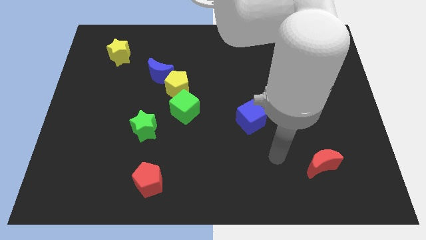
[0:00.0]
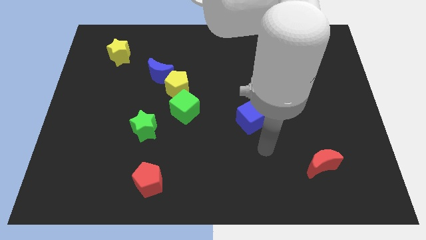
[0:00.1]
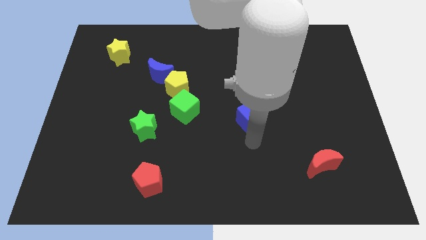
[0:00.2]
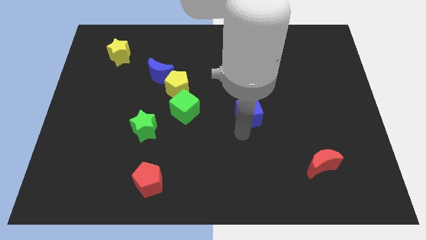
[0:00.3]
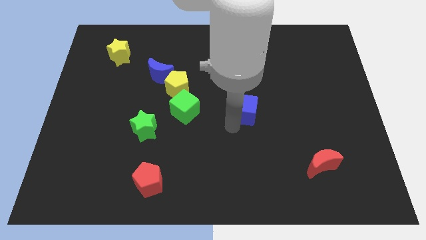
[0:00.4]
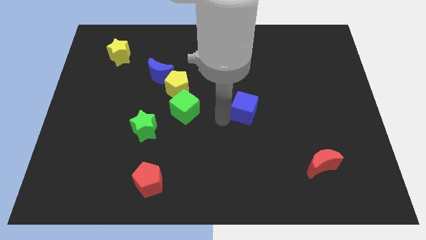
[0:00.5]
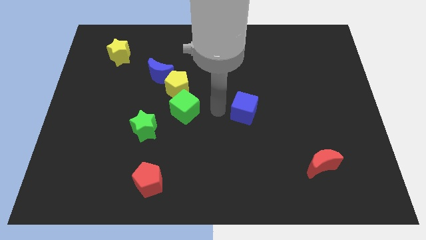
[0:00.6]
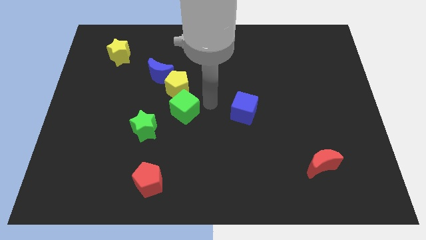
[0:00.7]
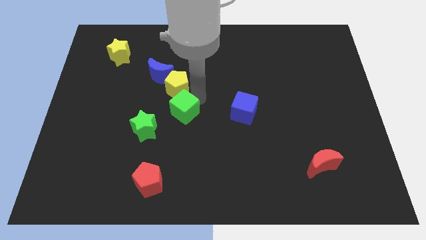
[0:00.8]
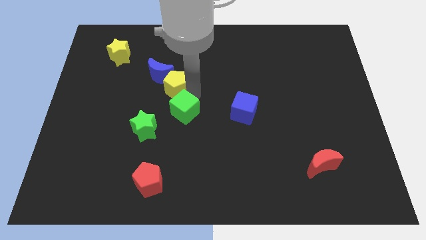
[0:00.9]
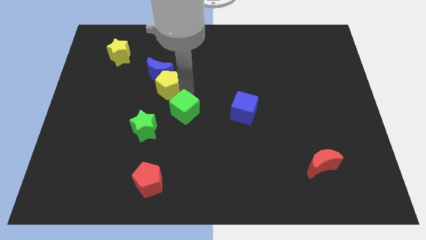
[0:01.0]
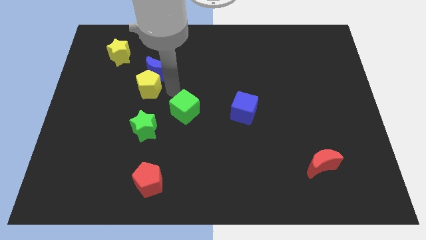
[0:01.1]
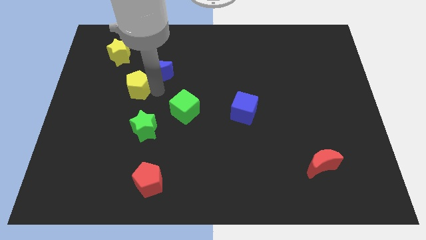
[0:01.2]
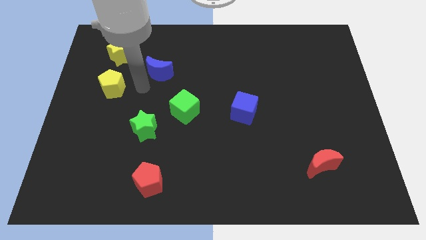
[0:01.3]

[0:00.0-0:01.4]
separate the blue moon from the yellow pentagon

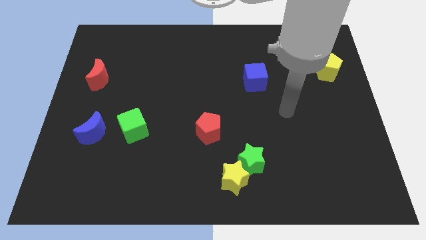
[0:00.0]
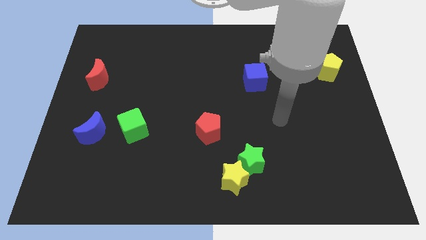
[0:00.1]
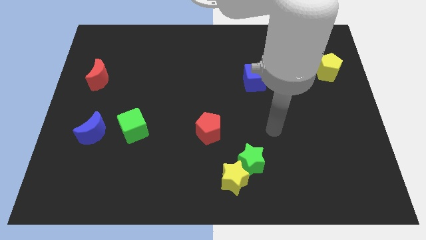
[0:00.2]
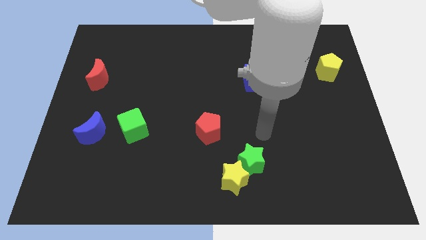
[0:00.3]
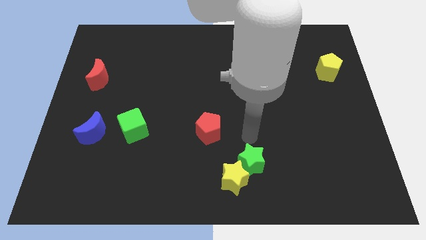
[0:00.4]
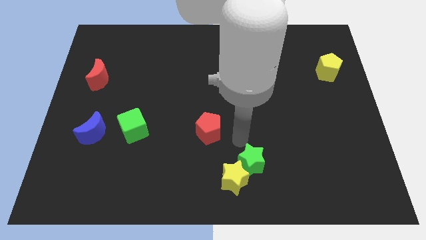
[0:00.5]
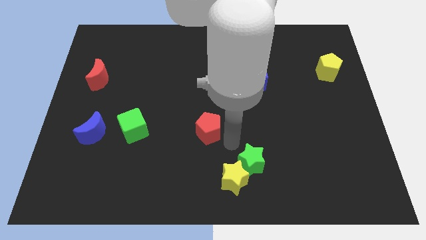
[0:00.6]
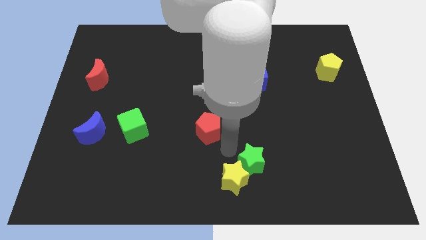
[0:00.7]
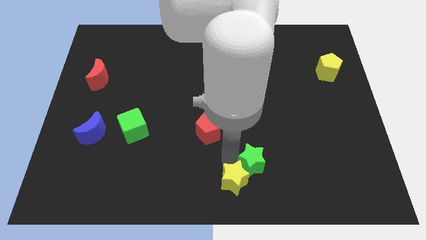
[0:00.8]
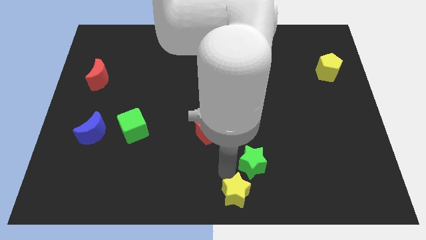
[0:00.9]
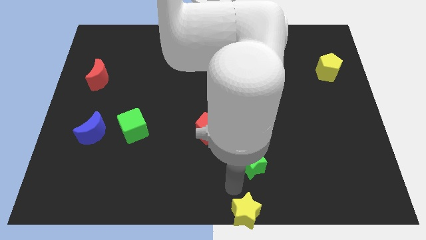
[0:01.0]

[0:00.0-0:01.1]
move the green star away from the yellow star

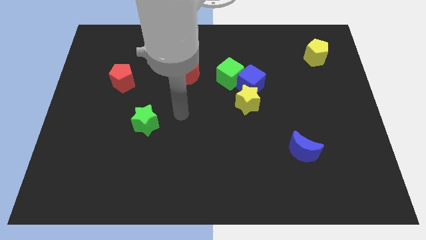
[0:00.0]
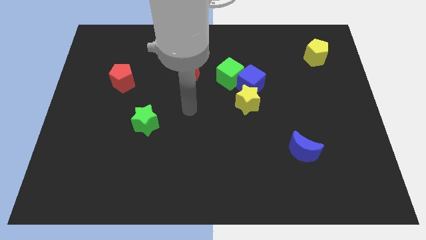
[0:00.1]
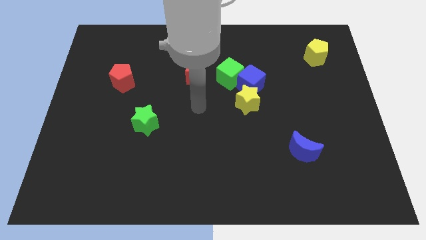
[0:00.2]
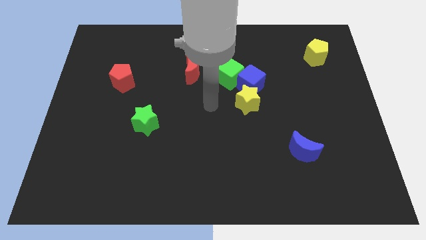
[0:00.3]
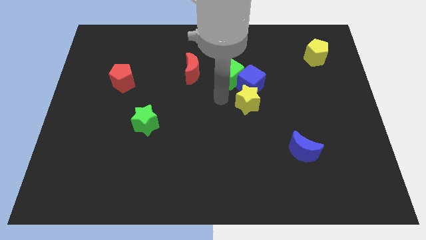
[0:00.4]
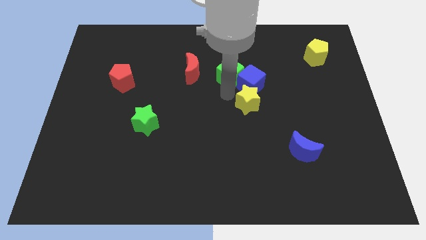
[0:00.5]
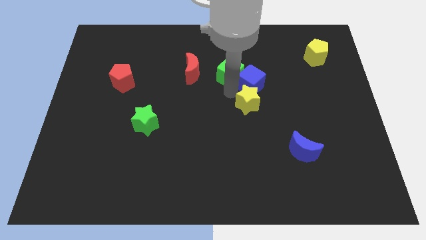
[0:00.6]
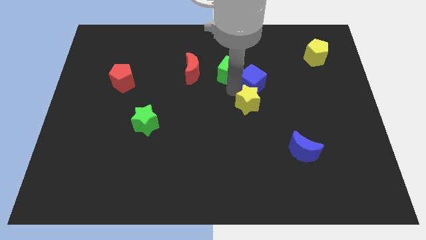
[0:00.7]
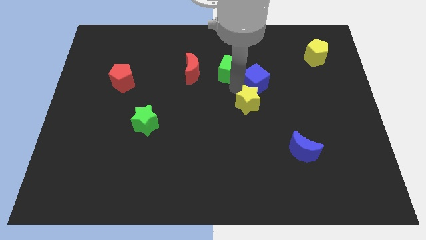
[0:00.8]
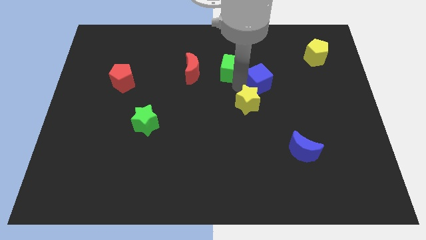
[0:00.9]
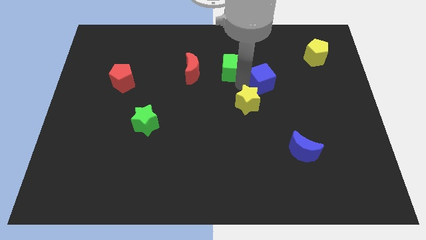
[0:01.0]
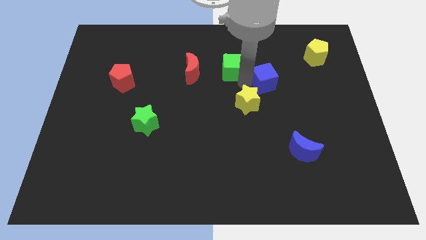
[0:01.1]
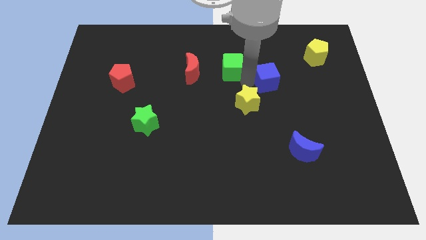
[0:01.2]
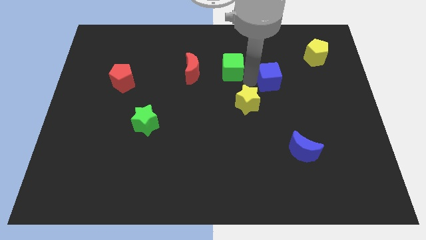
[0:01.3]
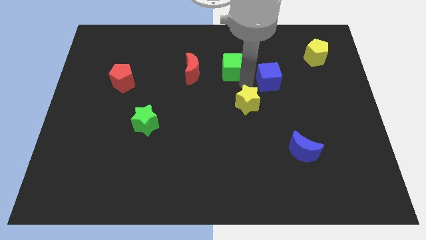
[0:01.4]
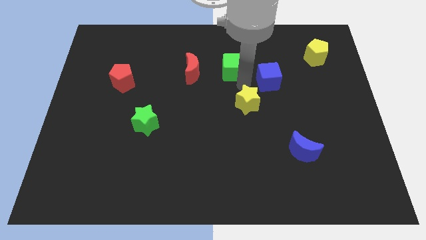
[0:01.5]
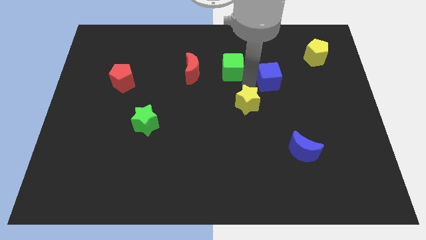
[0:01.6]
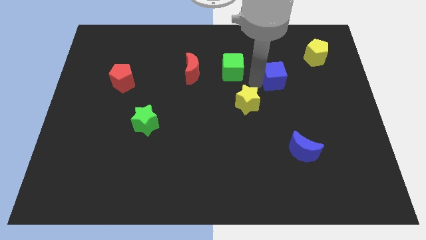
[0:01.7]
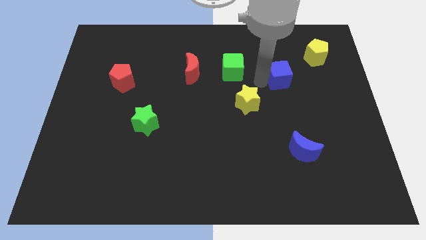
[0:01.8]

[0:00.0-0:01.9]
separate the blue cube from the green cube and yellow star

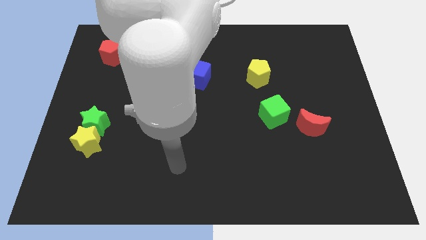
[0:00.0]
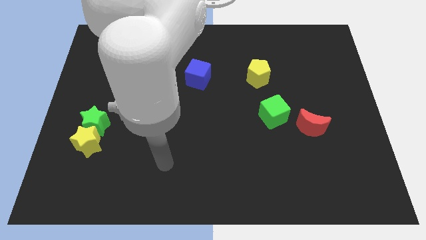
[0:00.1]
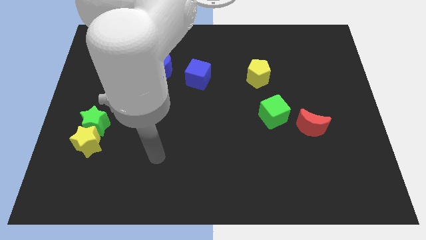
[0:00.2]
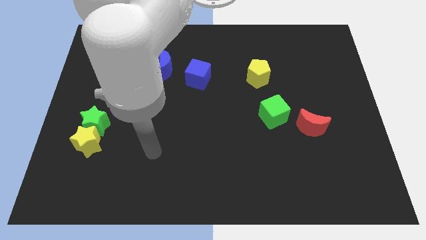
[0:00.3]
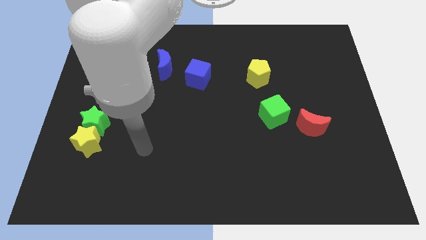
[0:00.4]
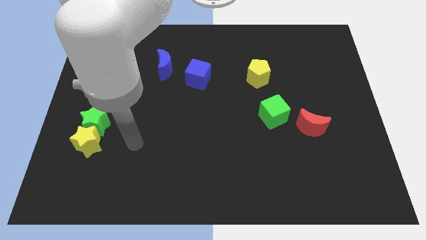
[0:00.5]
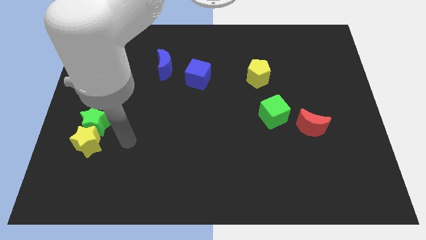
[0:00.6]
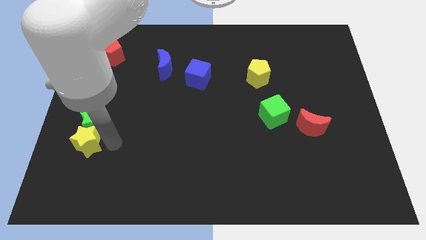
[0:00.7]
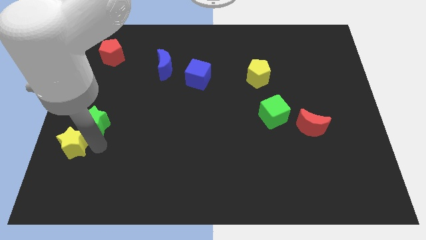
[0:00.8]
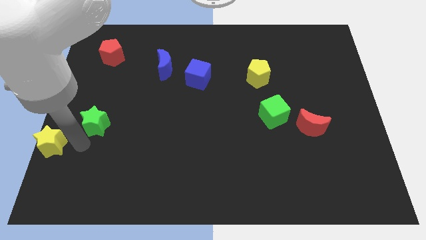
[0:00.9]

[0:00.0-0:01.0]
pull the green star apart from the yellow star

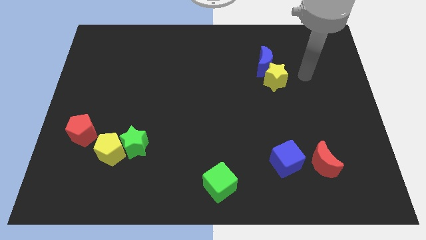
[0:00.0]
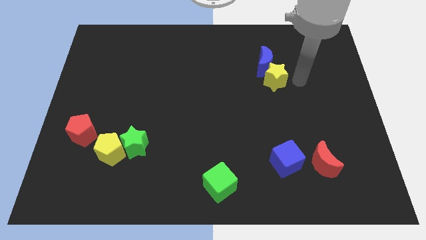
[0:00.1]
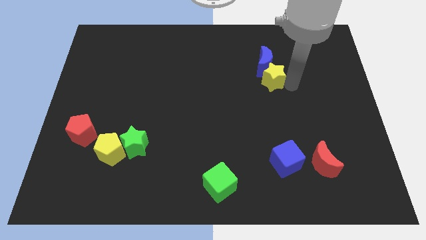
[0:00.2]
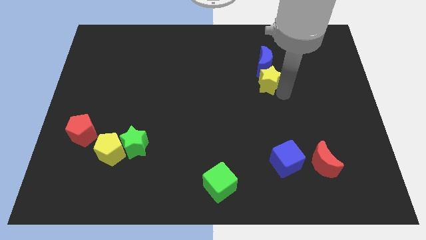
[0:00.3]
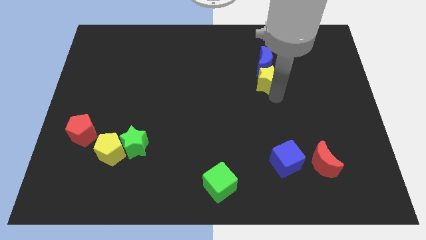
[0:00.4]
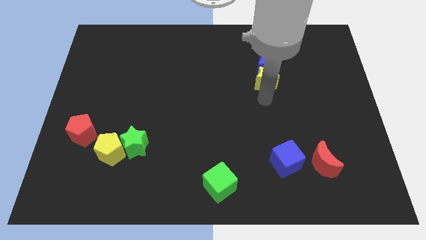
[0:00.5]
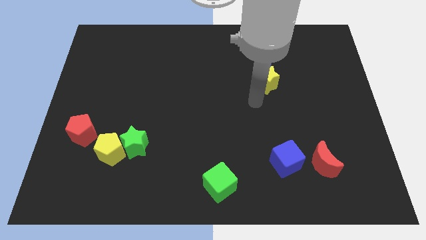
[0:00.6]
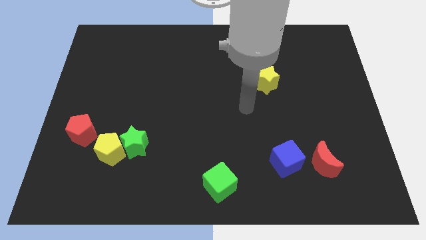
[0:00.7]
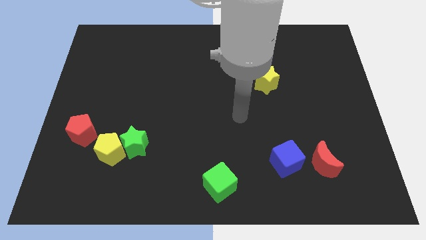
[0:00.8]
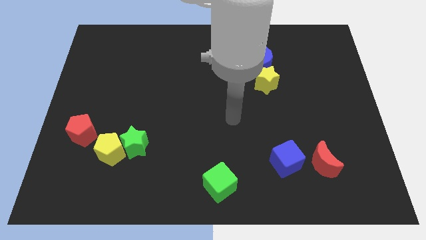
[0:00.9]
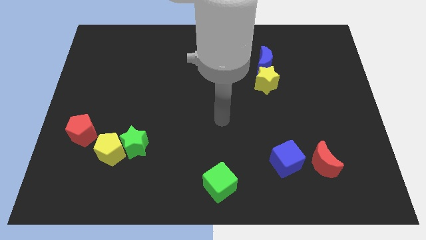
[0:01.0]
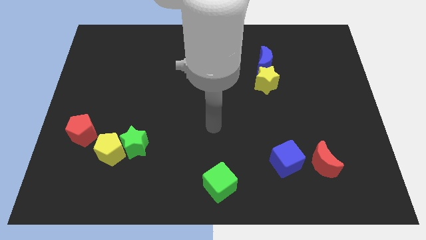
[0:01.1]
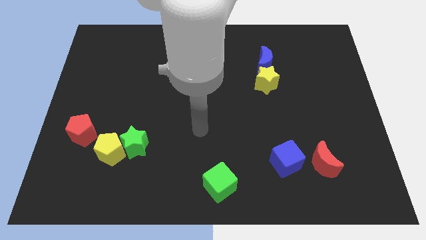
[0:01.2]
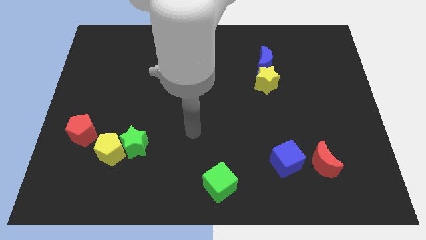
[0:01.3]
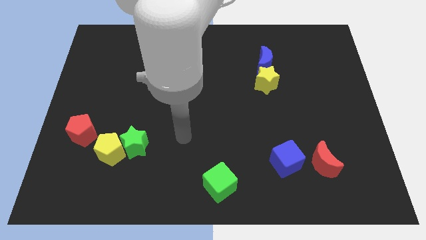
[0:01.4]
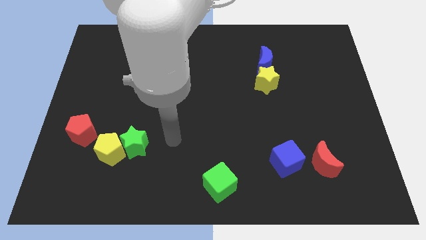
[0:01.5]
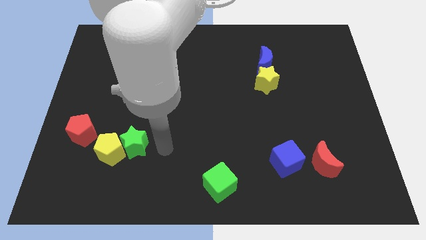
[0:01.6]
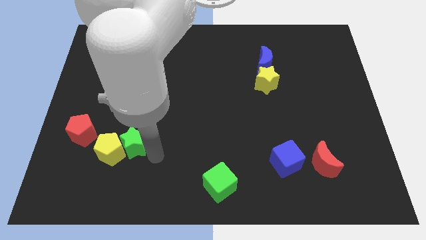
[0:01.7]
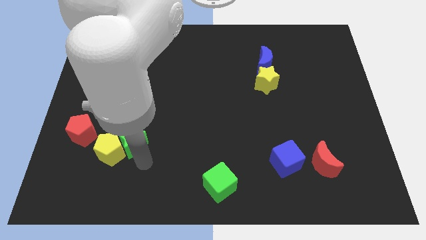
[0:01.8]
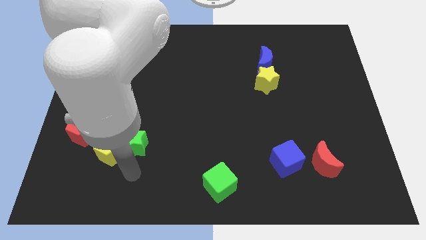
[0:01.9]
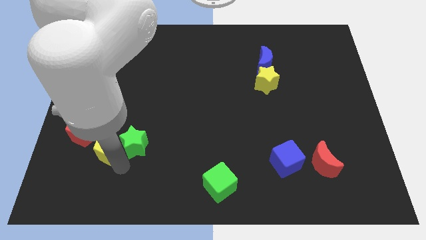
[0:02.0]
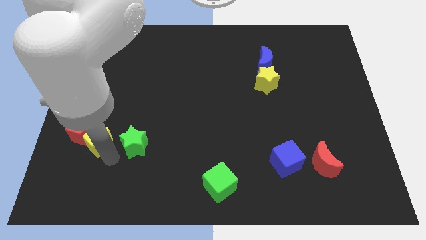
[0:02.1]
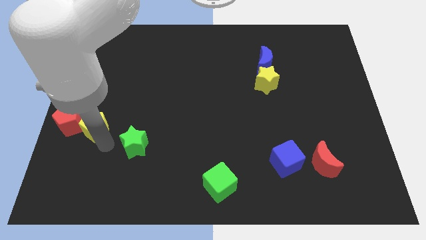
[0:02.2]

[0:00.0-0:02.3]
pull the green star apart from the yellow pentagon

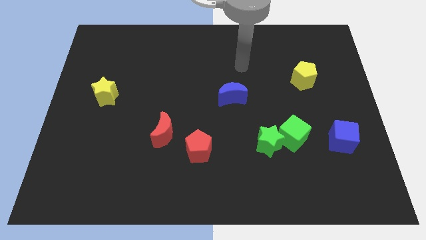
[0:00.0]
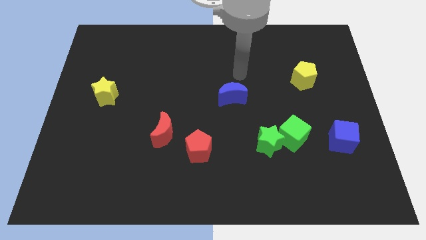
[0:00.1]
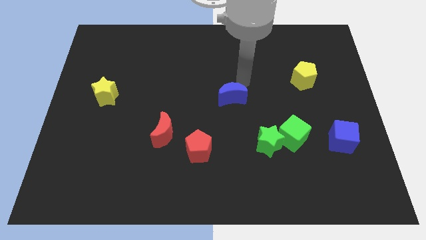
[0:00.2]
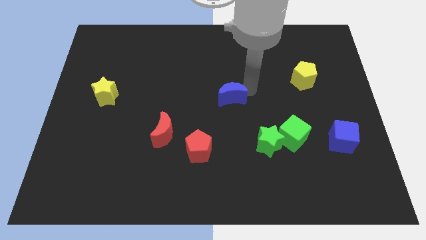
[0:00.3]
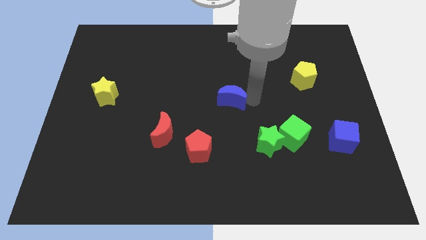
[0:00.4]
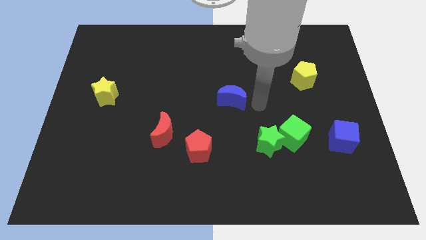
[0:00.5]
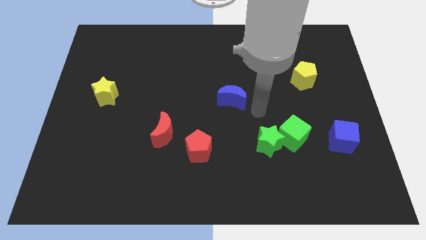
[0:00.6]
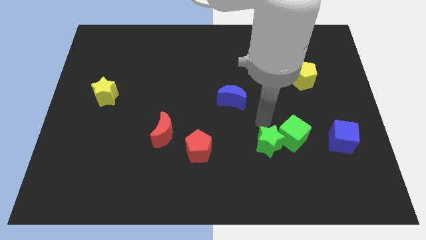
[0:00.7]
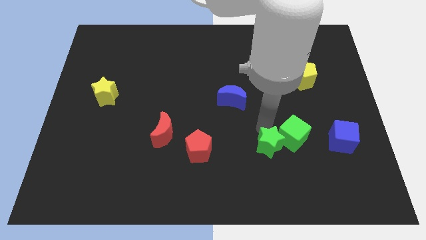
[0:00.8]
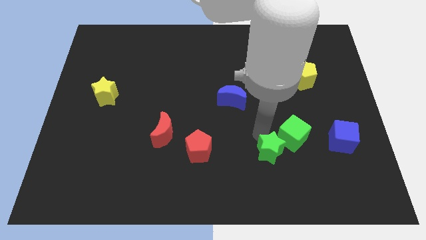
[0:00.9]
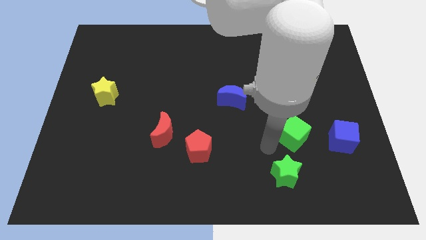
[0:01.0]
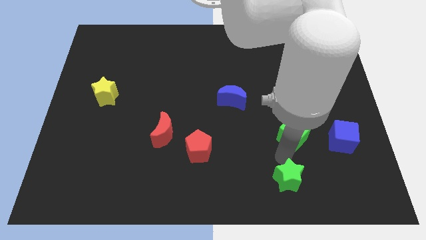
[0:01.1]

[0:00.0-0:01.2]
move the green cube away from the green star

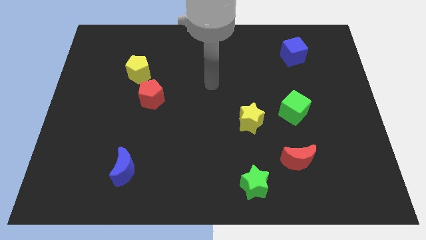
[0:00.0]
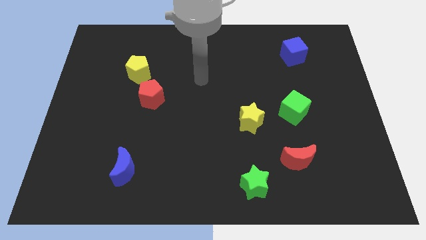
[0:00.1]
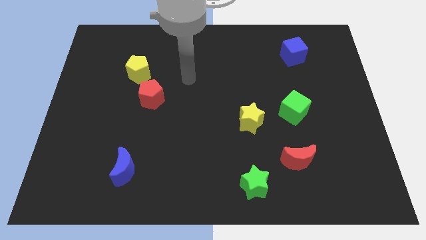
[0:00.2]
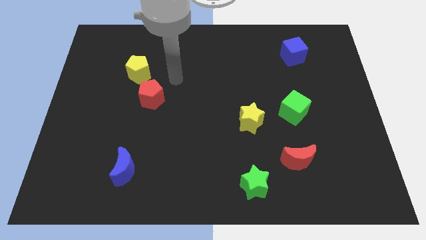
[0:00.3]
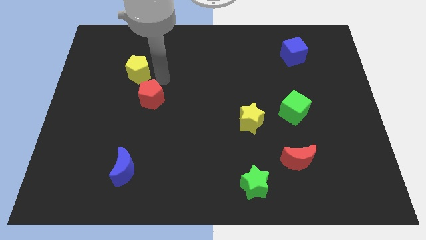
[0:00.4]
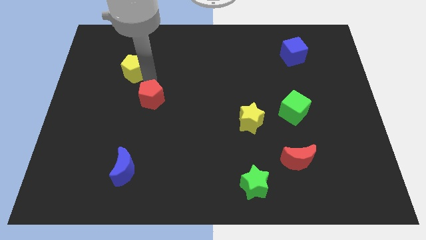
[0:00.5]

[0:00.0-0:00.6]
move the red pentagon away from the yellow pentagon

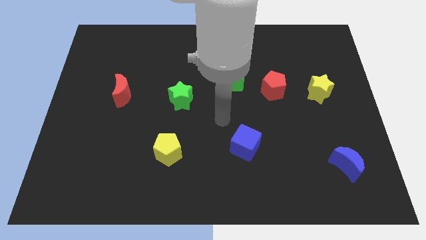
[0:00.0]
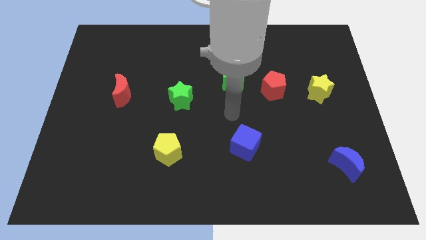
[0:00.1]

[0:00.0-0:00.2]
pull the red pentagon apart from the green cube
